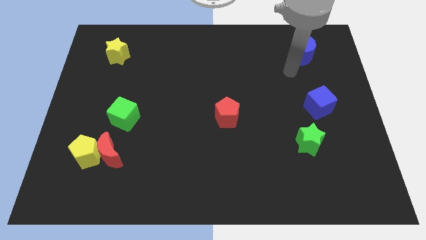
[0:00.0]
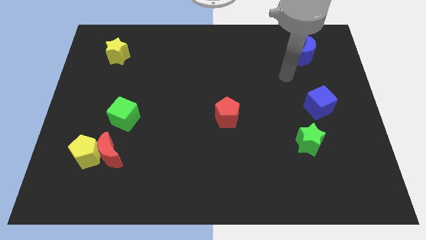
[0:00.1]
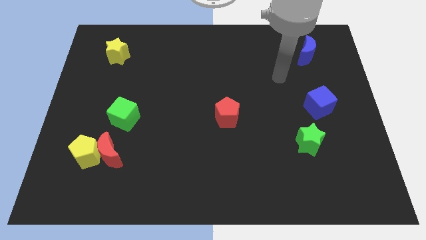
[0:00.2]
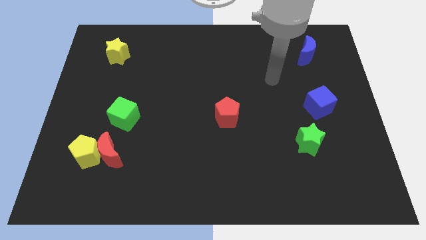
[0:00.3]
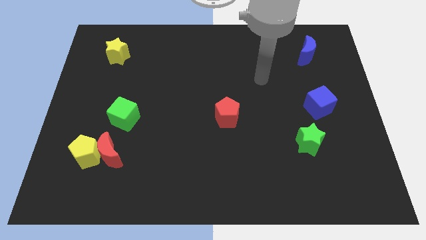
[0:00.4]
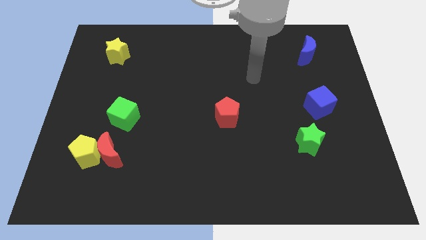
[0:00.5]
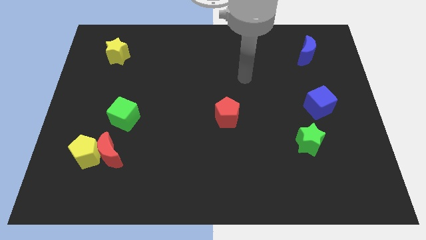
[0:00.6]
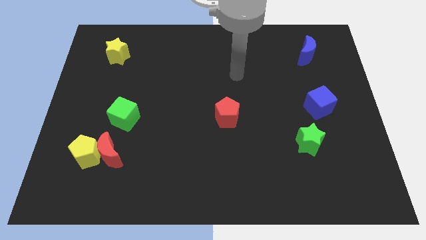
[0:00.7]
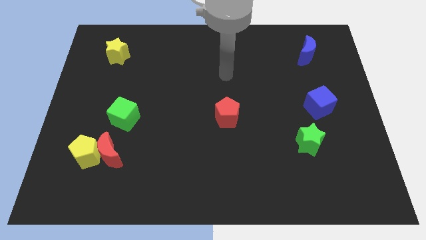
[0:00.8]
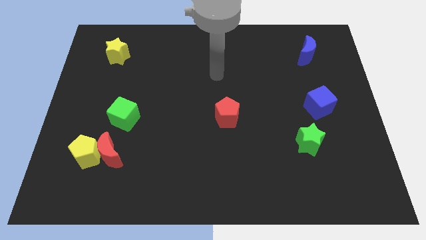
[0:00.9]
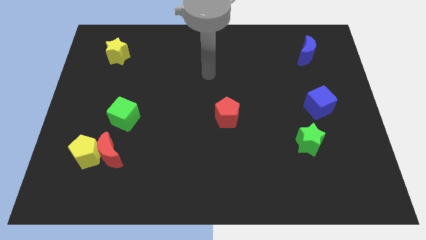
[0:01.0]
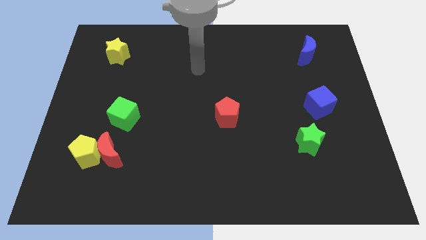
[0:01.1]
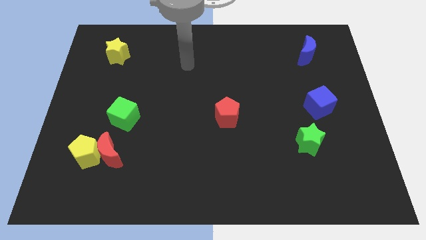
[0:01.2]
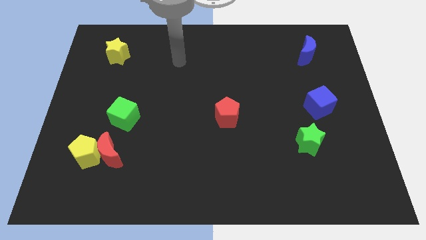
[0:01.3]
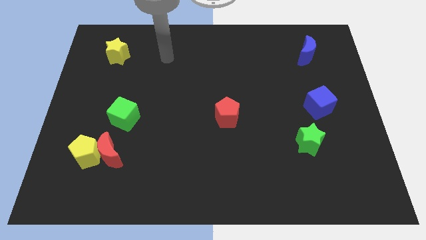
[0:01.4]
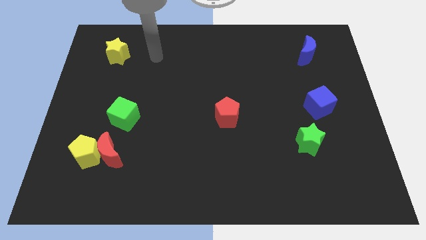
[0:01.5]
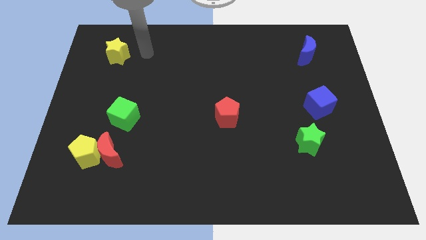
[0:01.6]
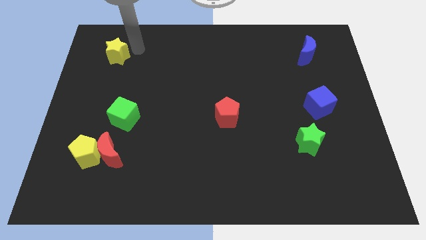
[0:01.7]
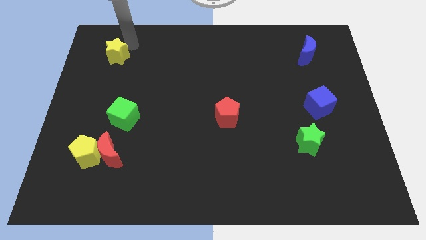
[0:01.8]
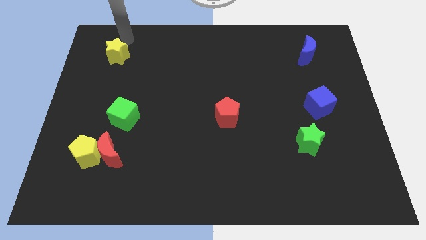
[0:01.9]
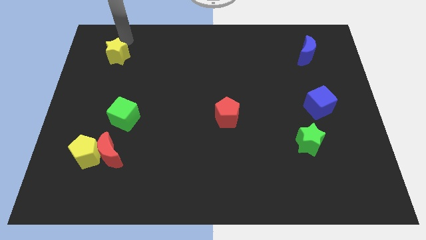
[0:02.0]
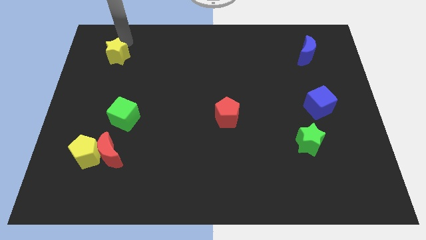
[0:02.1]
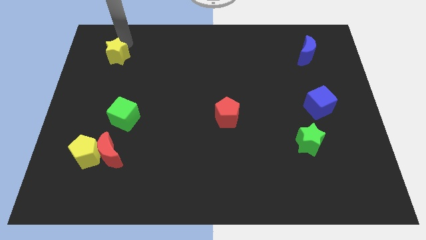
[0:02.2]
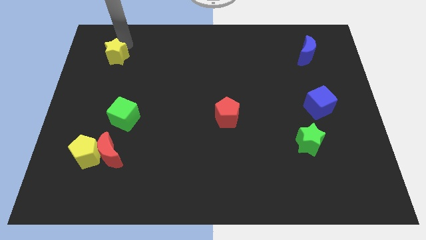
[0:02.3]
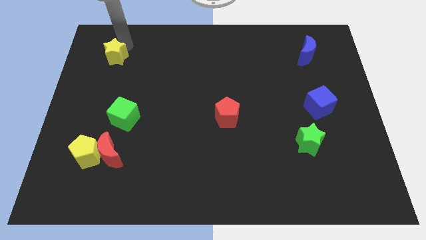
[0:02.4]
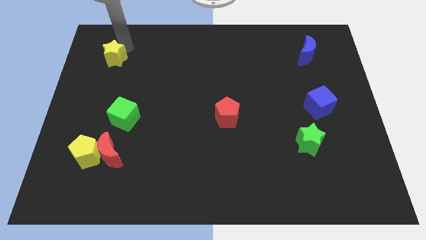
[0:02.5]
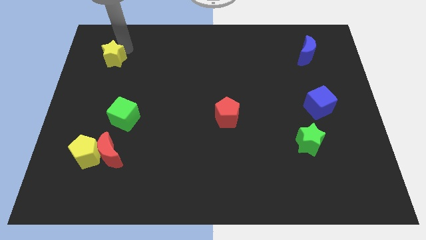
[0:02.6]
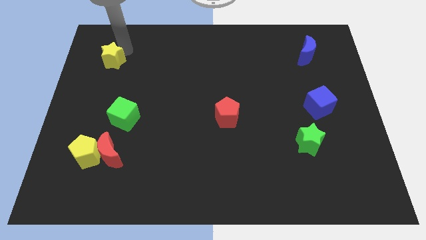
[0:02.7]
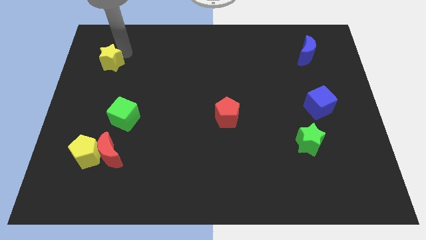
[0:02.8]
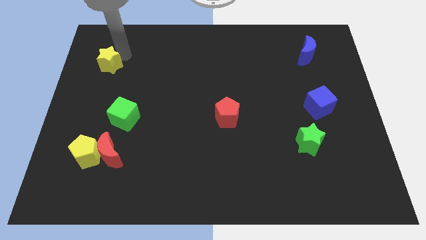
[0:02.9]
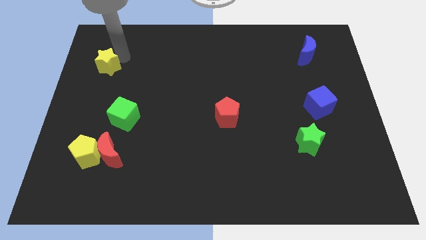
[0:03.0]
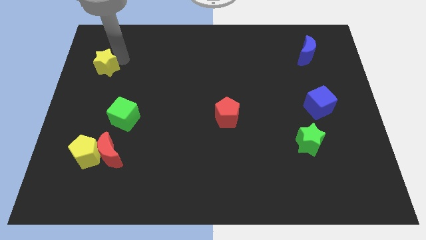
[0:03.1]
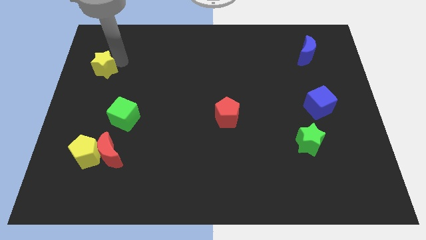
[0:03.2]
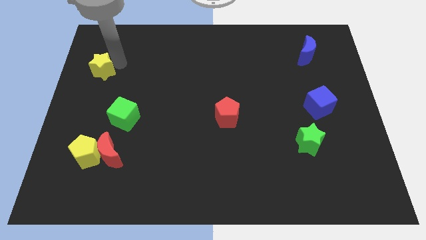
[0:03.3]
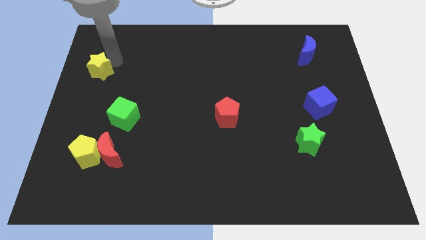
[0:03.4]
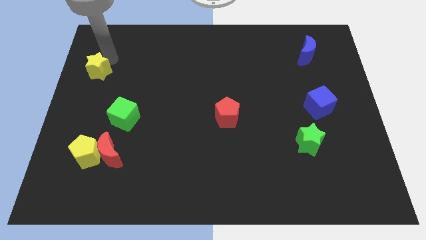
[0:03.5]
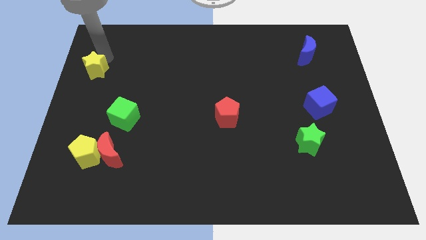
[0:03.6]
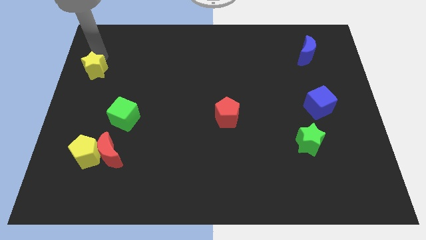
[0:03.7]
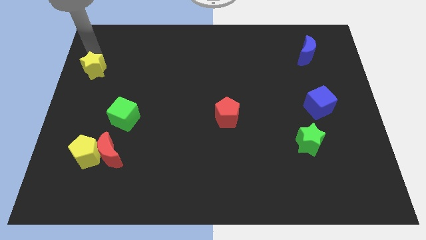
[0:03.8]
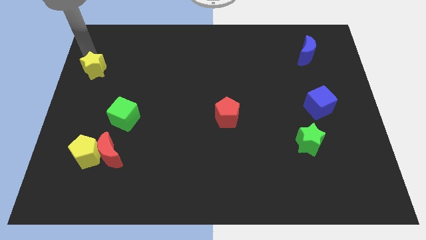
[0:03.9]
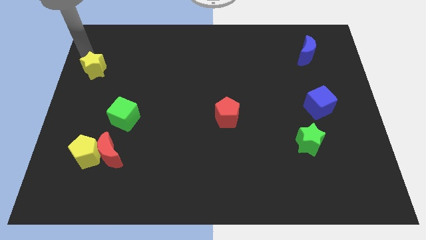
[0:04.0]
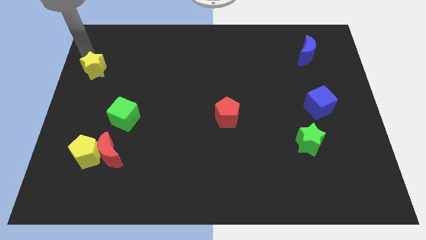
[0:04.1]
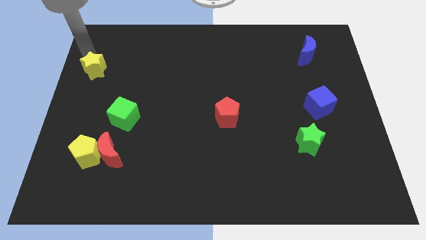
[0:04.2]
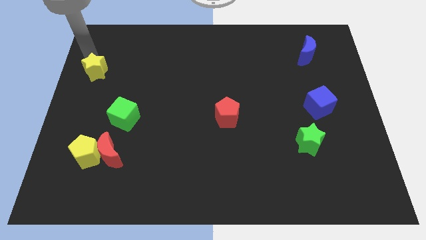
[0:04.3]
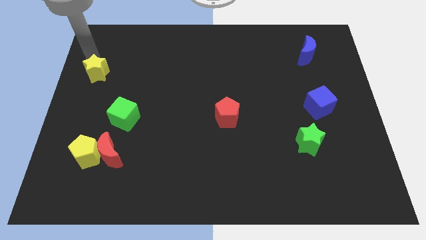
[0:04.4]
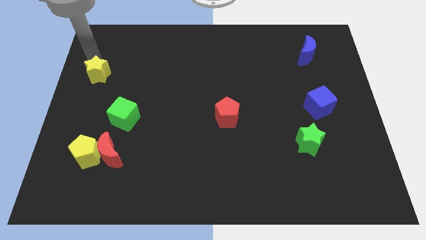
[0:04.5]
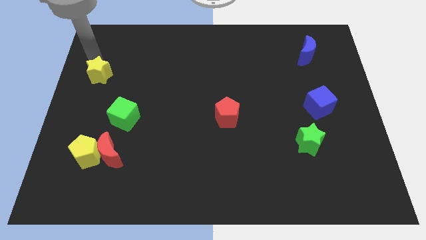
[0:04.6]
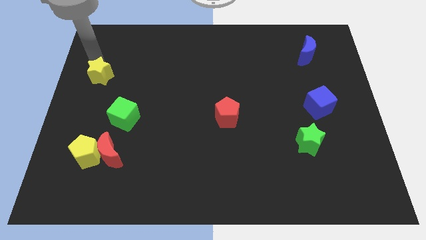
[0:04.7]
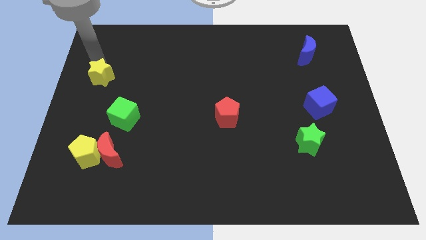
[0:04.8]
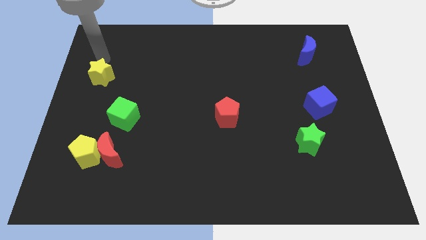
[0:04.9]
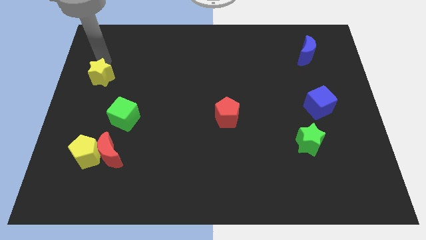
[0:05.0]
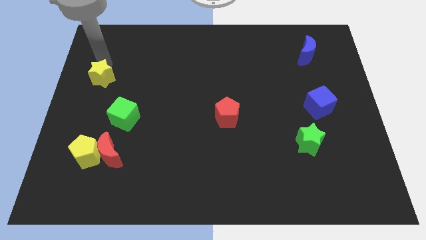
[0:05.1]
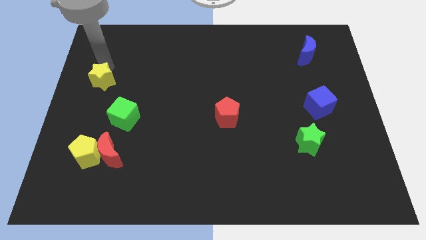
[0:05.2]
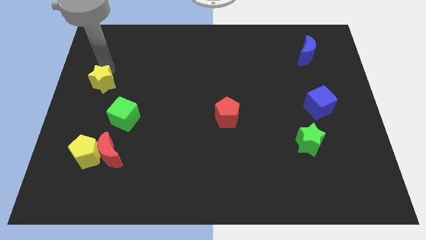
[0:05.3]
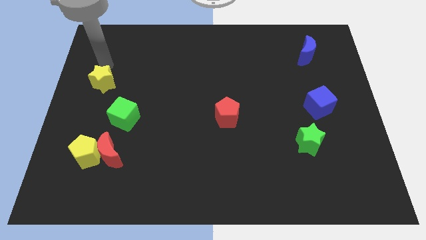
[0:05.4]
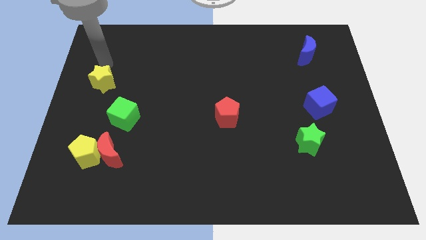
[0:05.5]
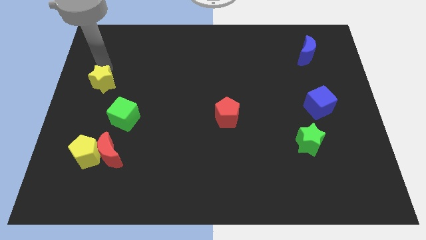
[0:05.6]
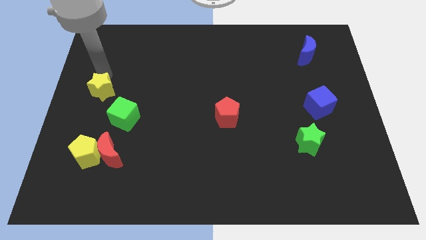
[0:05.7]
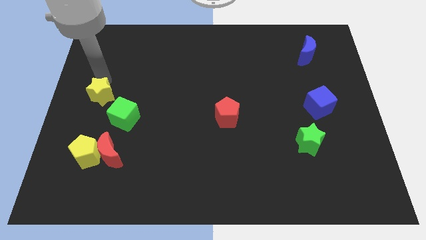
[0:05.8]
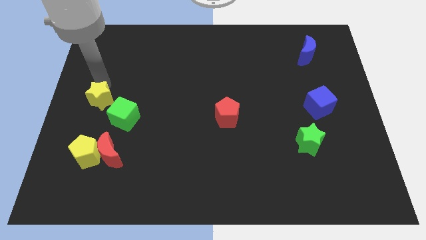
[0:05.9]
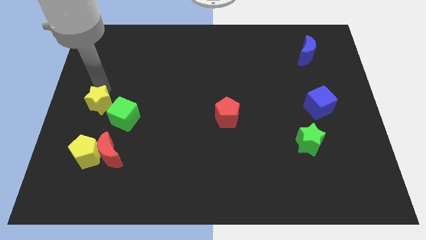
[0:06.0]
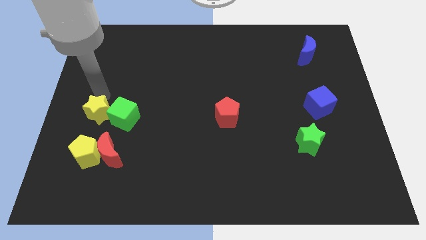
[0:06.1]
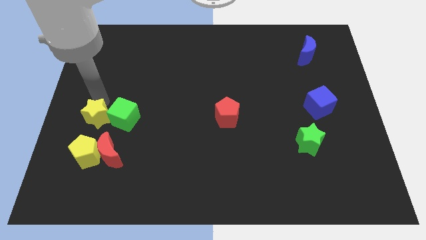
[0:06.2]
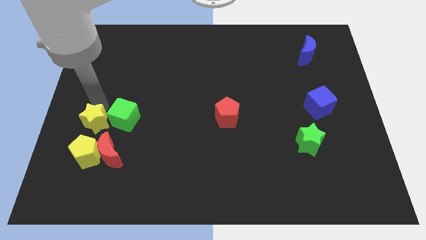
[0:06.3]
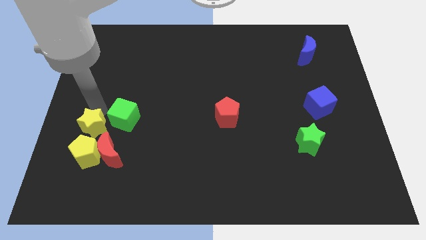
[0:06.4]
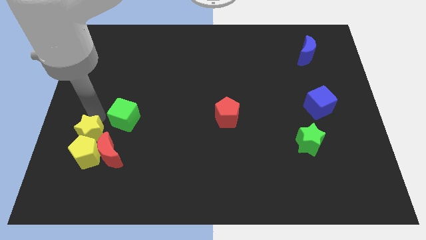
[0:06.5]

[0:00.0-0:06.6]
move the yellow star close to the yellow pentagon

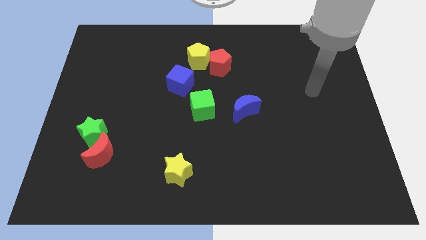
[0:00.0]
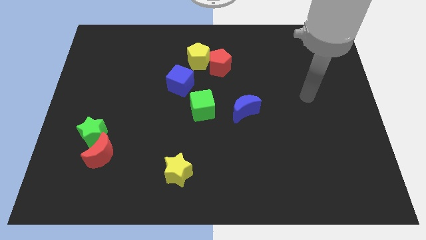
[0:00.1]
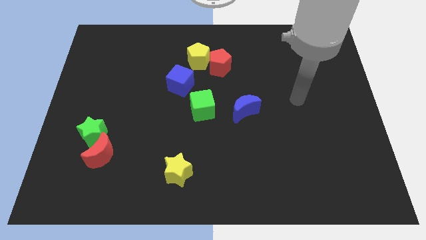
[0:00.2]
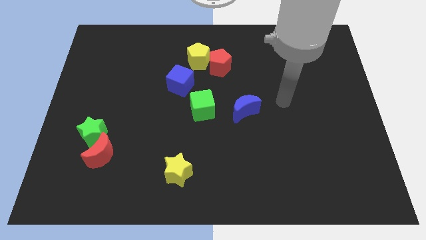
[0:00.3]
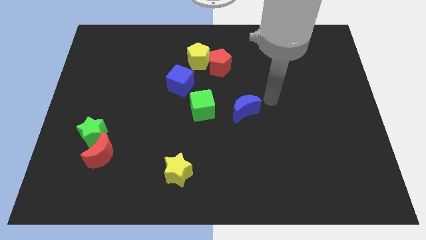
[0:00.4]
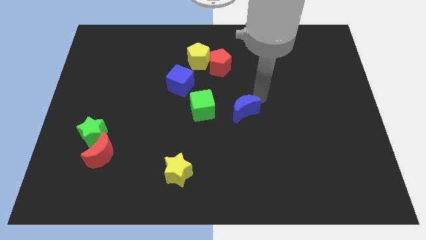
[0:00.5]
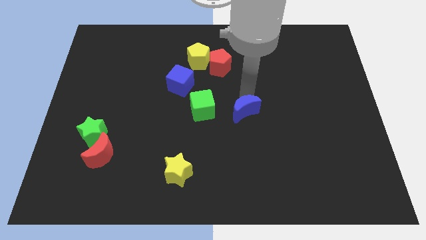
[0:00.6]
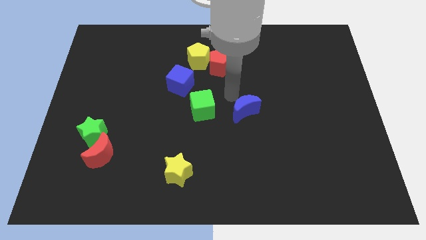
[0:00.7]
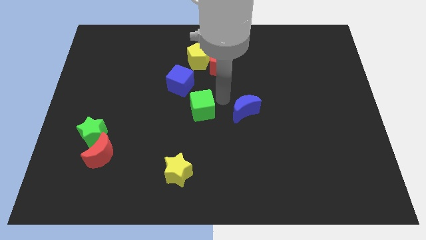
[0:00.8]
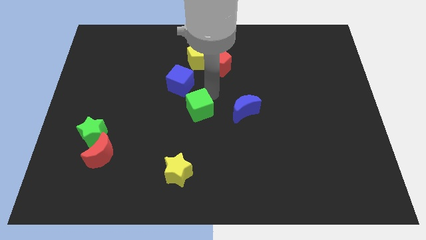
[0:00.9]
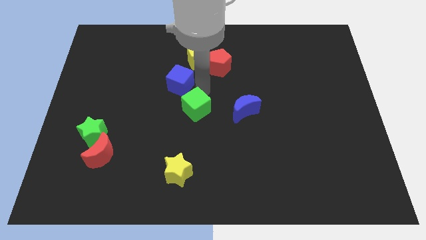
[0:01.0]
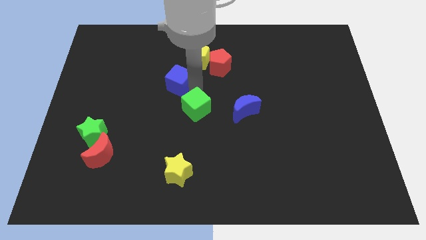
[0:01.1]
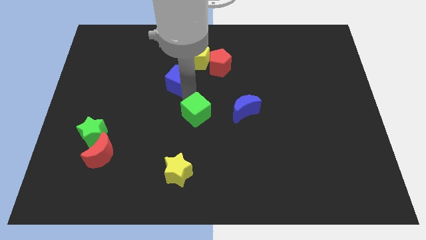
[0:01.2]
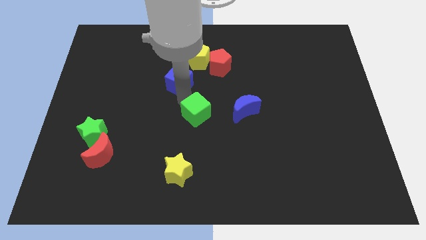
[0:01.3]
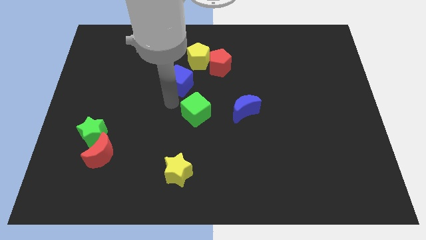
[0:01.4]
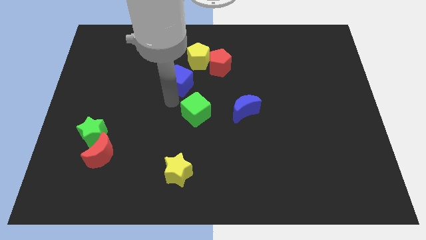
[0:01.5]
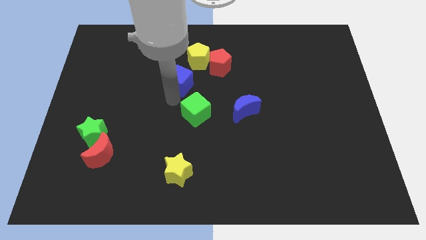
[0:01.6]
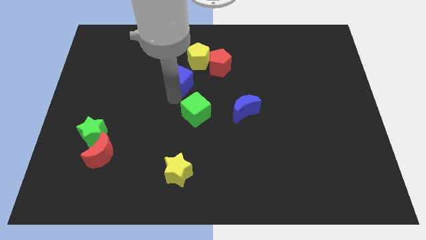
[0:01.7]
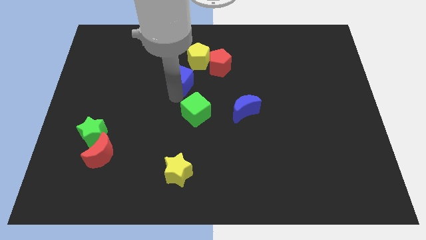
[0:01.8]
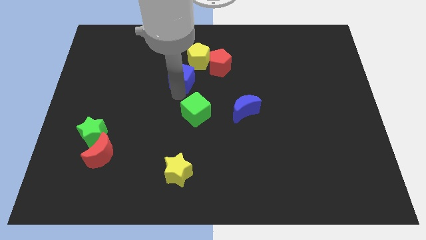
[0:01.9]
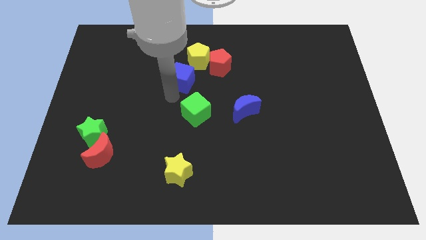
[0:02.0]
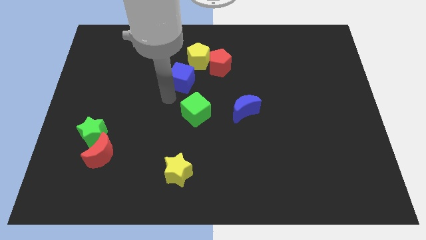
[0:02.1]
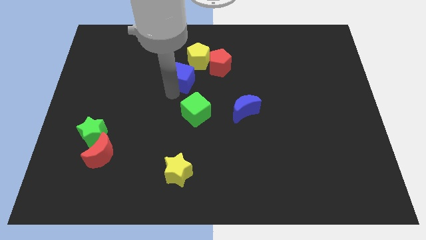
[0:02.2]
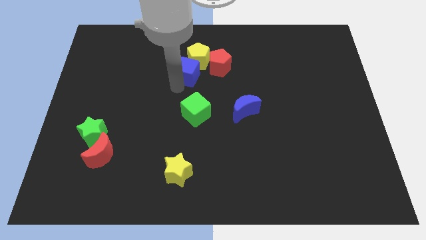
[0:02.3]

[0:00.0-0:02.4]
move the blue cube close to the yellow pentagon
